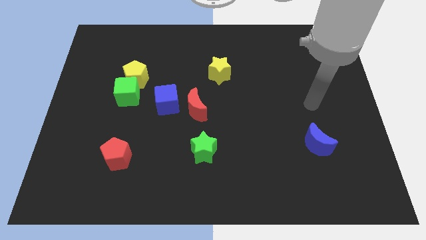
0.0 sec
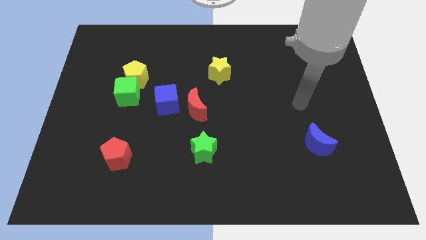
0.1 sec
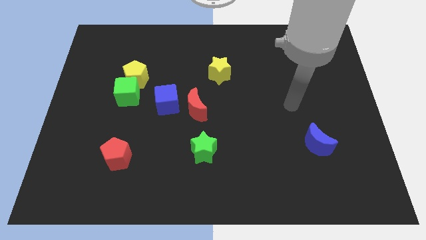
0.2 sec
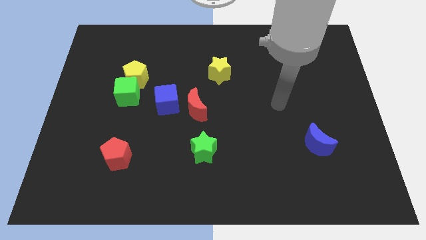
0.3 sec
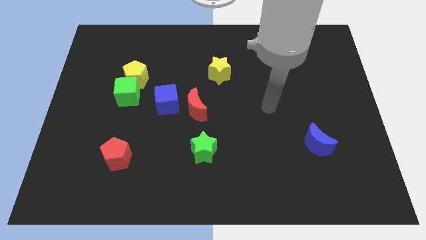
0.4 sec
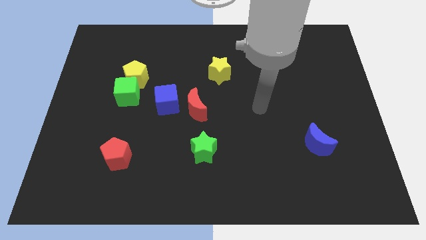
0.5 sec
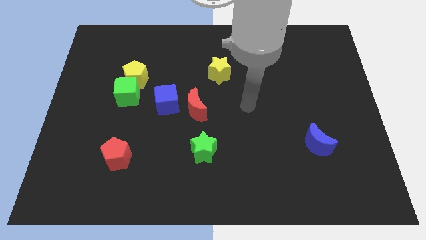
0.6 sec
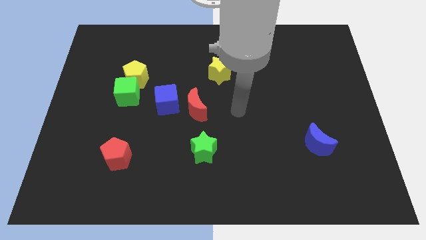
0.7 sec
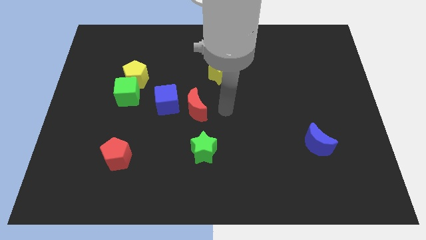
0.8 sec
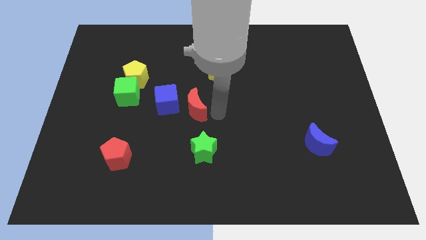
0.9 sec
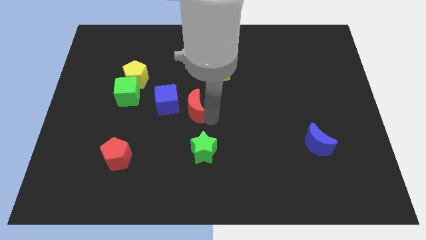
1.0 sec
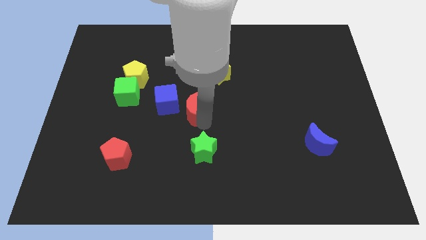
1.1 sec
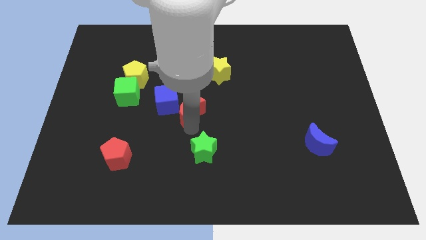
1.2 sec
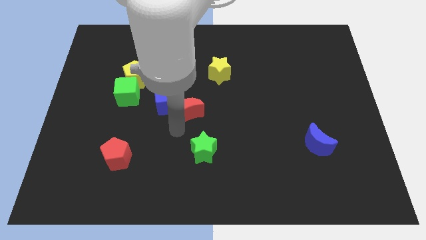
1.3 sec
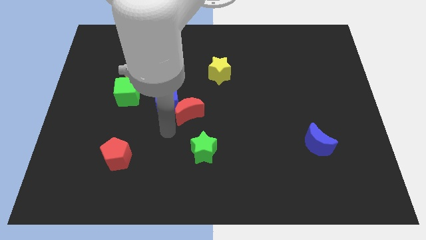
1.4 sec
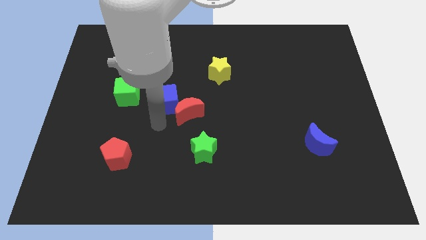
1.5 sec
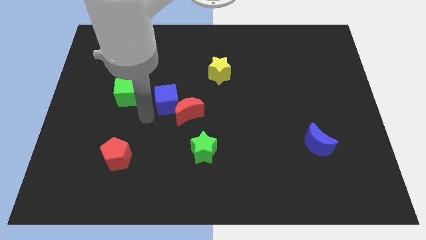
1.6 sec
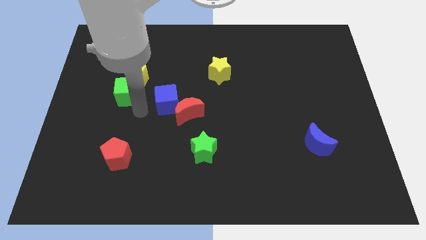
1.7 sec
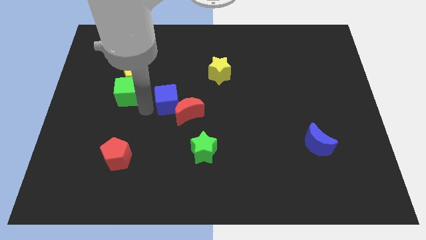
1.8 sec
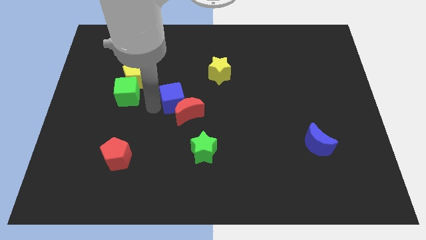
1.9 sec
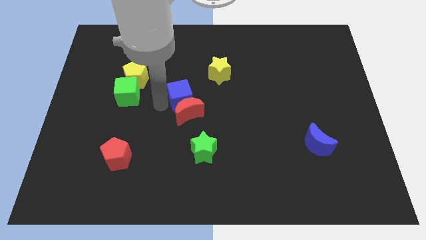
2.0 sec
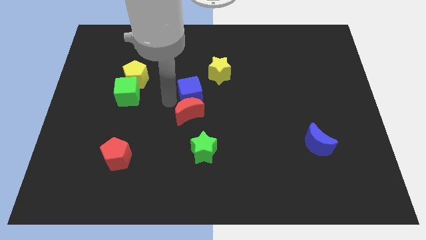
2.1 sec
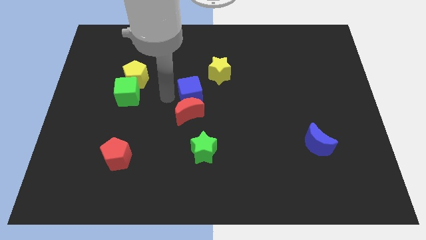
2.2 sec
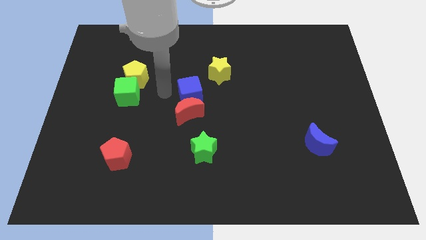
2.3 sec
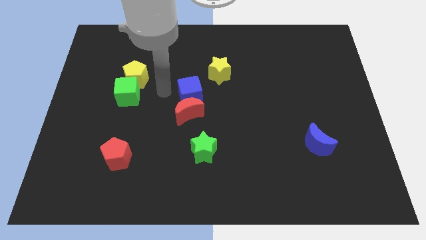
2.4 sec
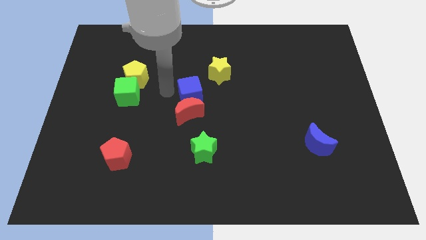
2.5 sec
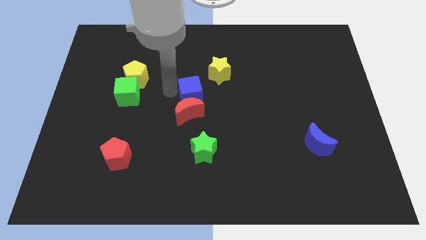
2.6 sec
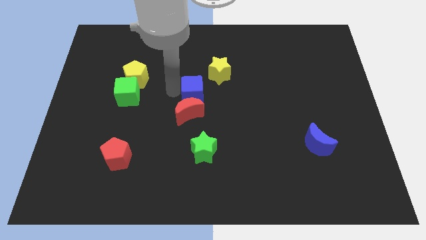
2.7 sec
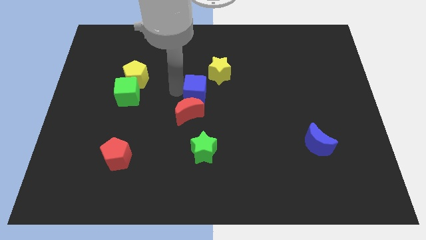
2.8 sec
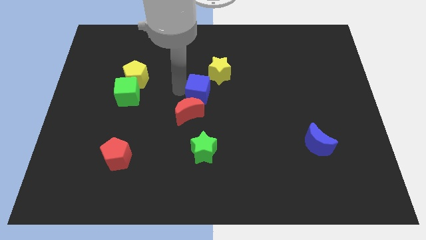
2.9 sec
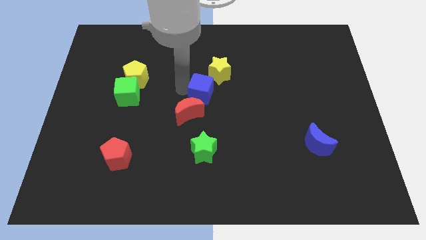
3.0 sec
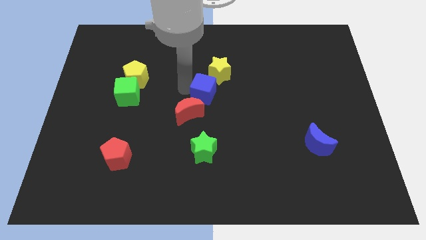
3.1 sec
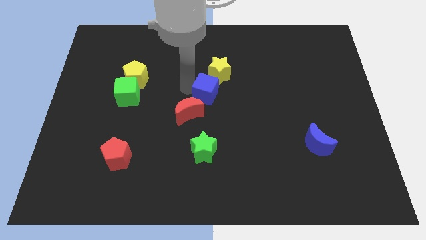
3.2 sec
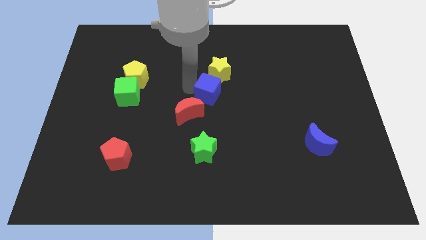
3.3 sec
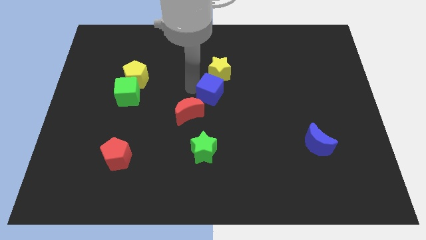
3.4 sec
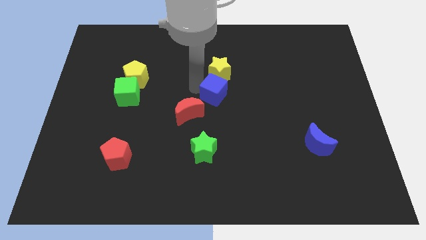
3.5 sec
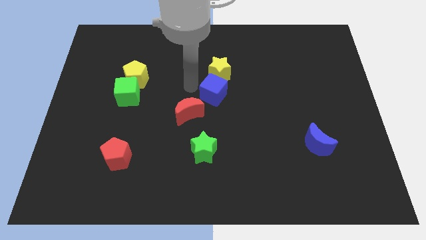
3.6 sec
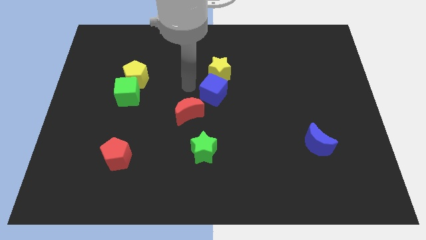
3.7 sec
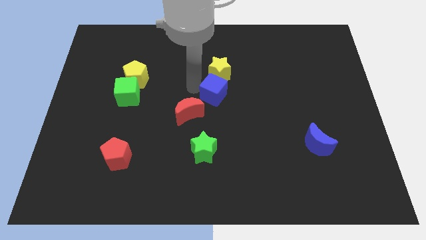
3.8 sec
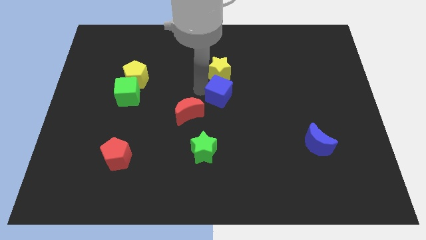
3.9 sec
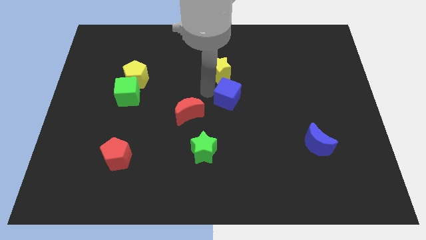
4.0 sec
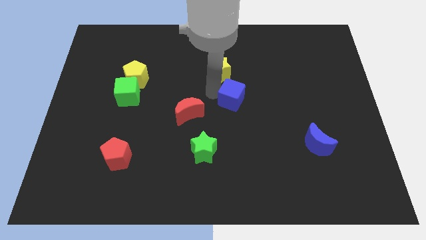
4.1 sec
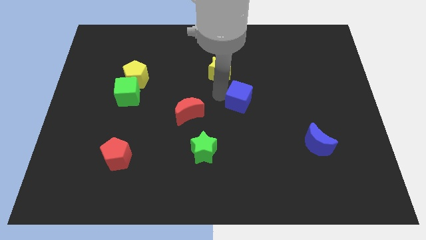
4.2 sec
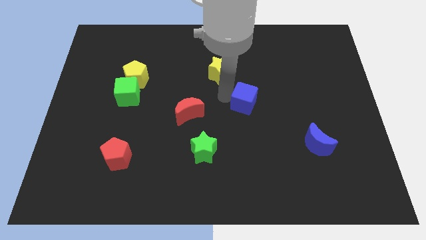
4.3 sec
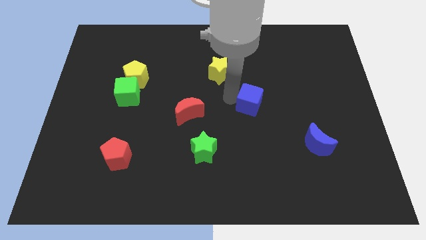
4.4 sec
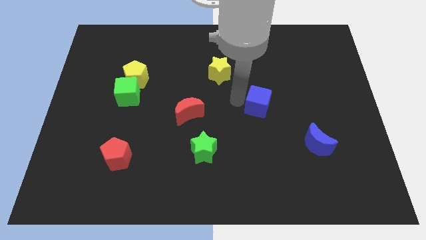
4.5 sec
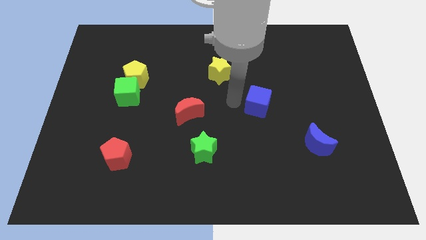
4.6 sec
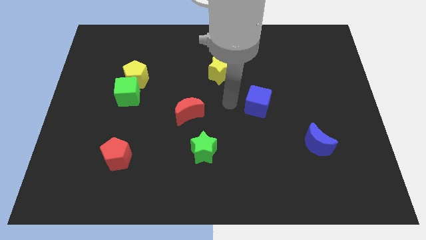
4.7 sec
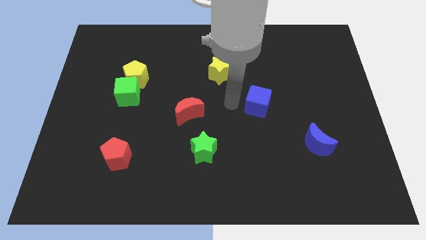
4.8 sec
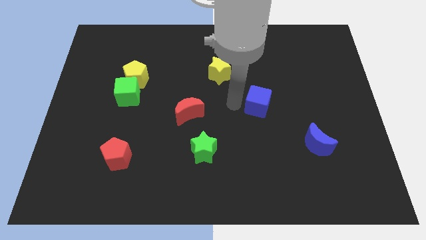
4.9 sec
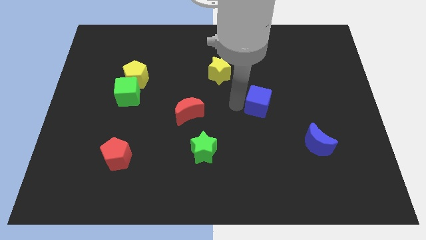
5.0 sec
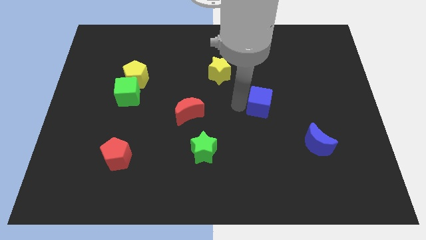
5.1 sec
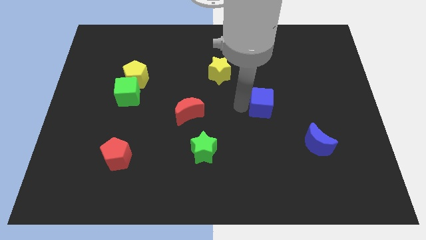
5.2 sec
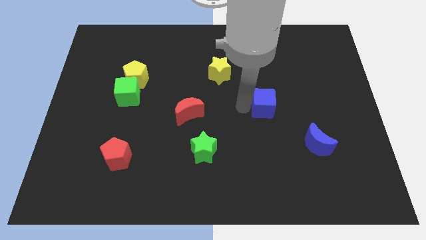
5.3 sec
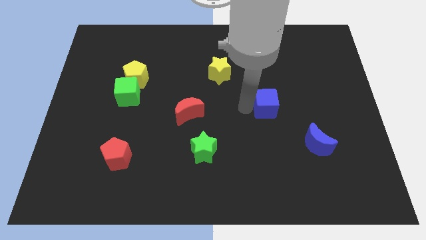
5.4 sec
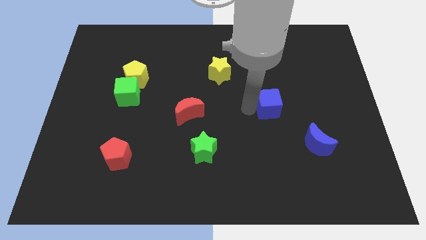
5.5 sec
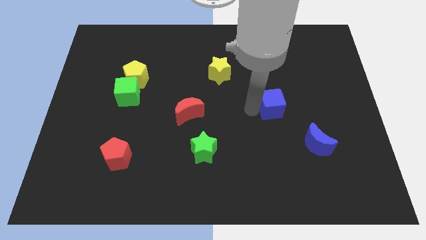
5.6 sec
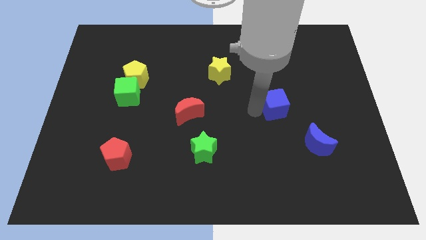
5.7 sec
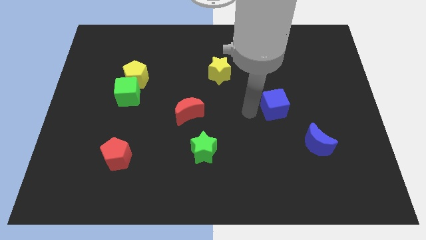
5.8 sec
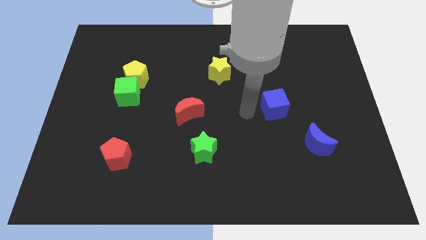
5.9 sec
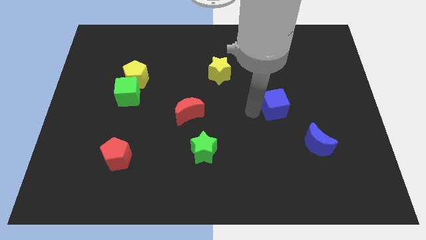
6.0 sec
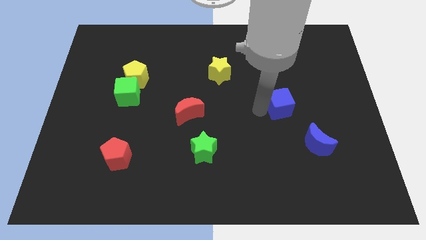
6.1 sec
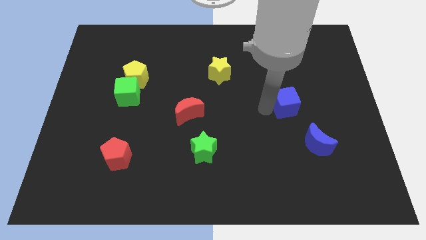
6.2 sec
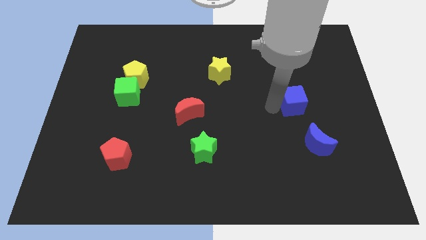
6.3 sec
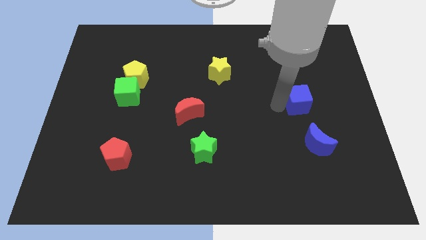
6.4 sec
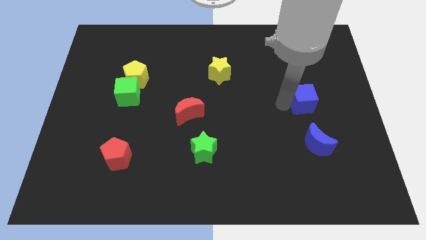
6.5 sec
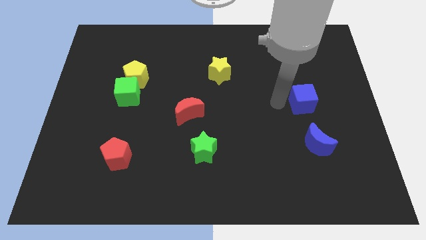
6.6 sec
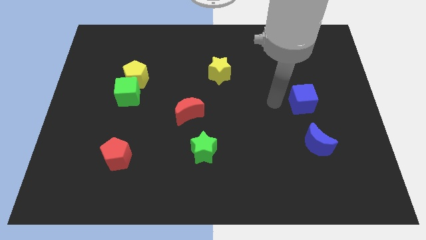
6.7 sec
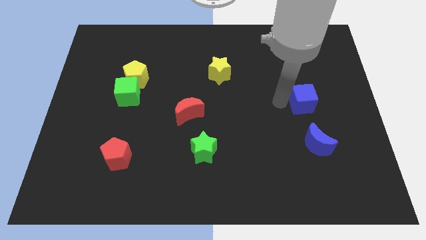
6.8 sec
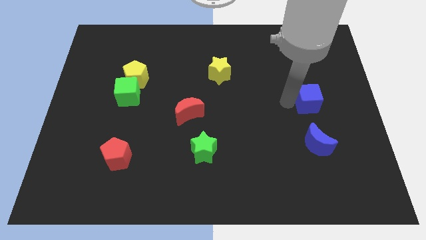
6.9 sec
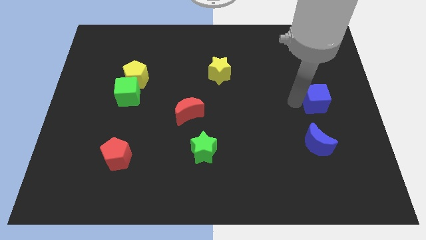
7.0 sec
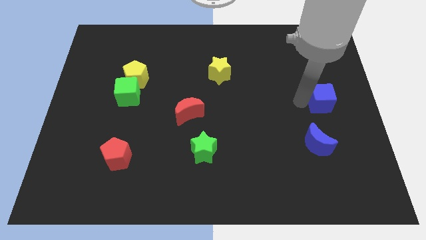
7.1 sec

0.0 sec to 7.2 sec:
put the blue cube to the right side
